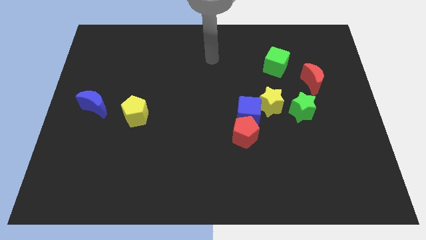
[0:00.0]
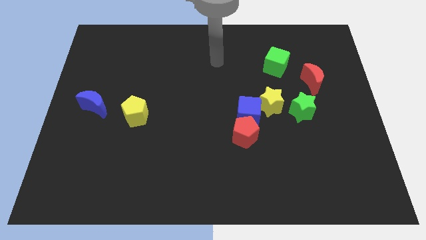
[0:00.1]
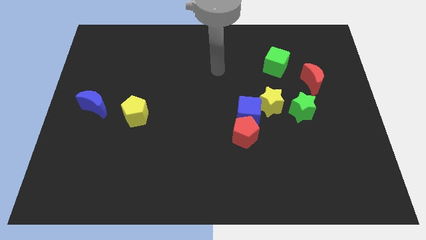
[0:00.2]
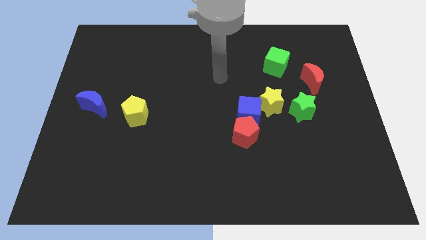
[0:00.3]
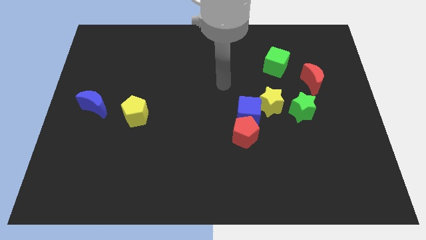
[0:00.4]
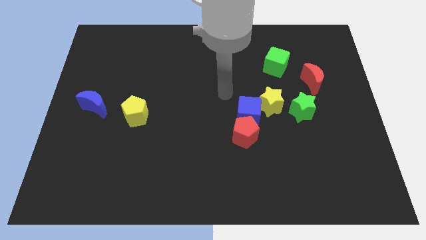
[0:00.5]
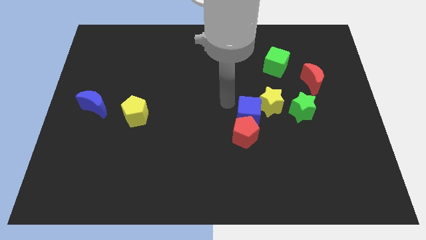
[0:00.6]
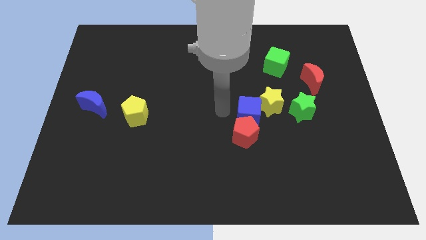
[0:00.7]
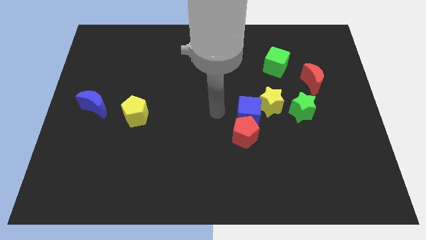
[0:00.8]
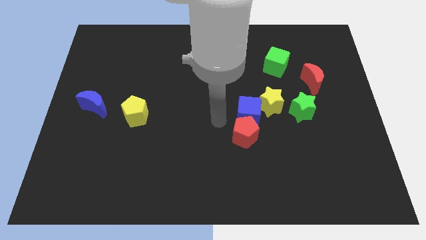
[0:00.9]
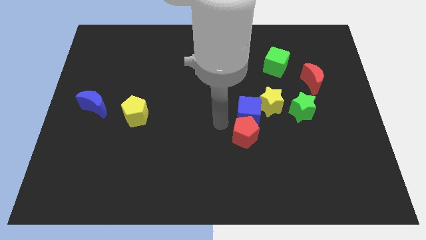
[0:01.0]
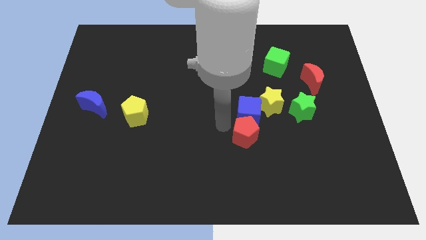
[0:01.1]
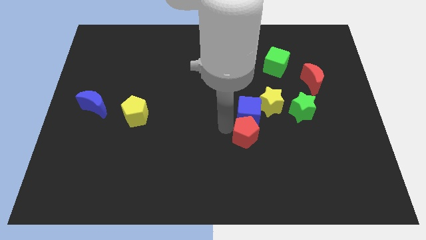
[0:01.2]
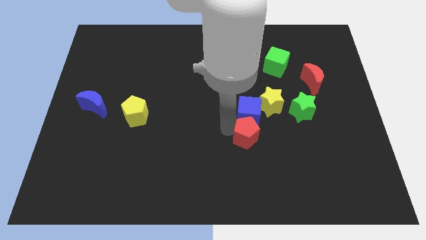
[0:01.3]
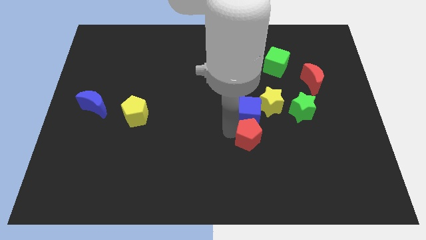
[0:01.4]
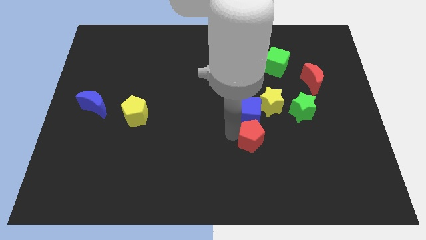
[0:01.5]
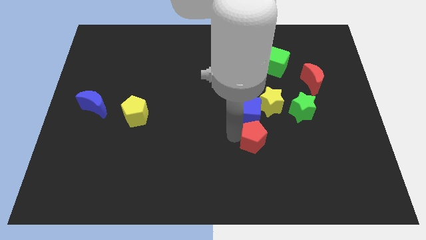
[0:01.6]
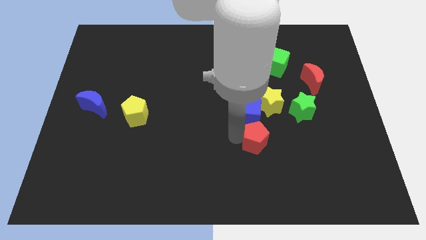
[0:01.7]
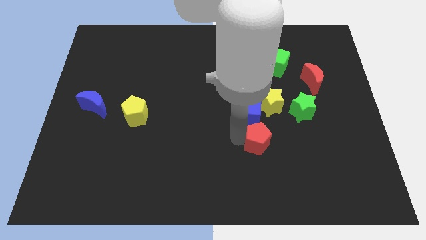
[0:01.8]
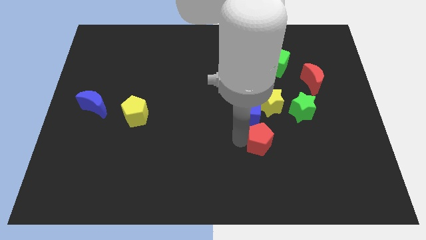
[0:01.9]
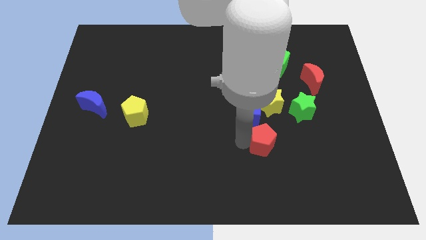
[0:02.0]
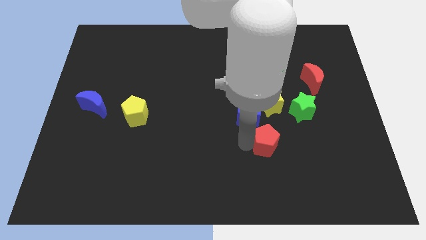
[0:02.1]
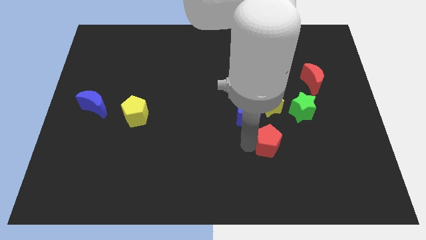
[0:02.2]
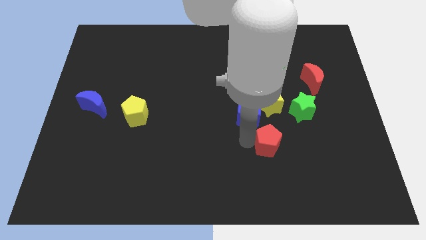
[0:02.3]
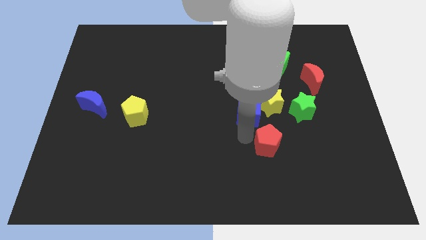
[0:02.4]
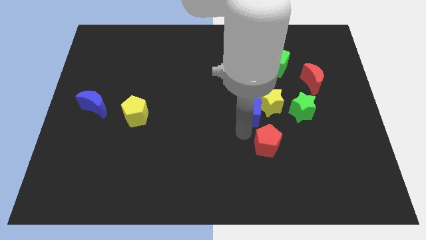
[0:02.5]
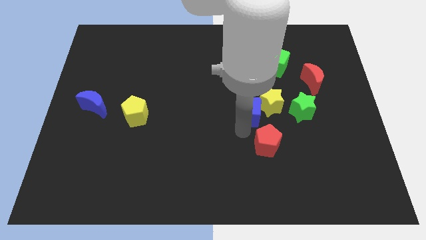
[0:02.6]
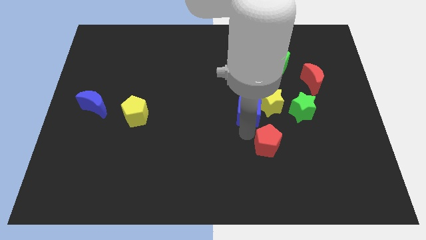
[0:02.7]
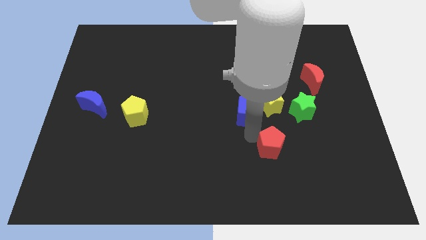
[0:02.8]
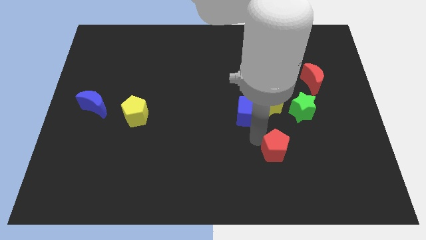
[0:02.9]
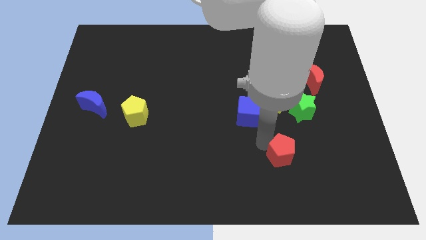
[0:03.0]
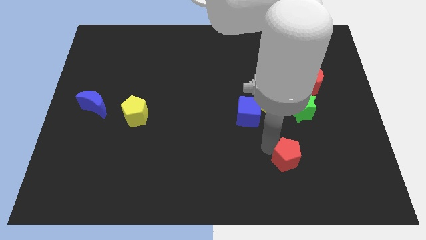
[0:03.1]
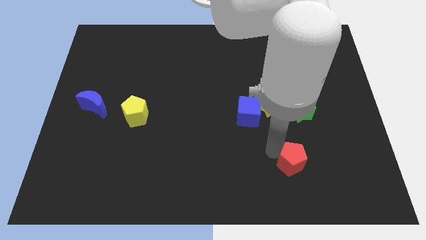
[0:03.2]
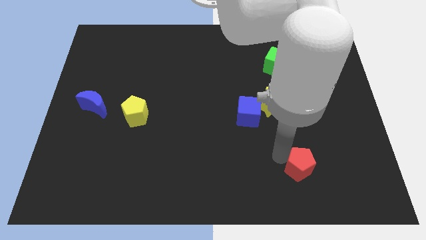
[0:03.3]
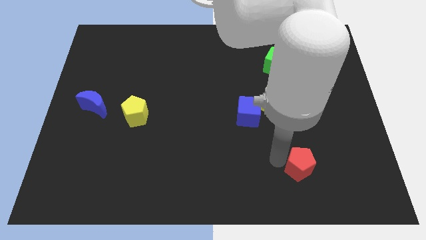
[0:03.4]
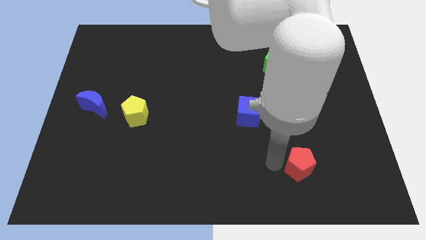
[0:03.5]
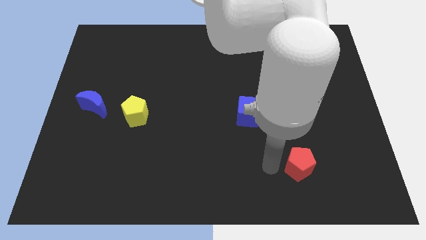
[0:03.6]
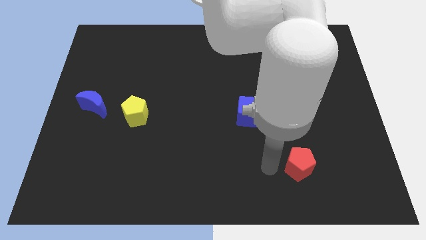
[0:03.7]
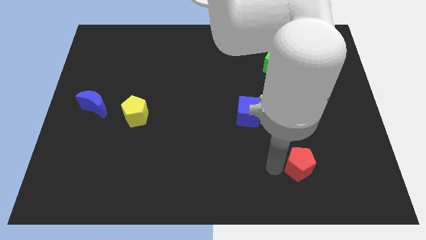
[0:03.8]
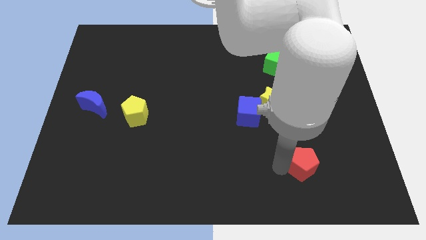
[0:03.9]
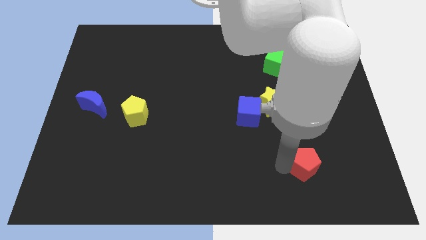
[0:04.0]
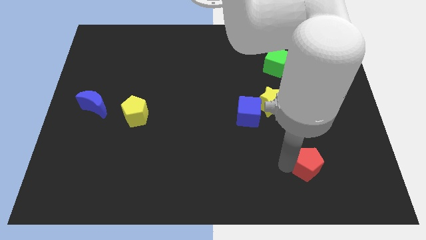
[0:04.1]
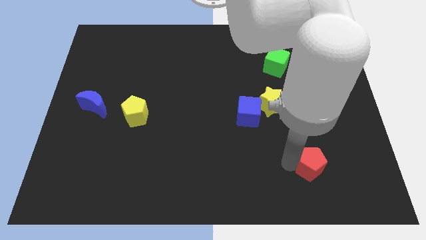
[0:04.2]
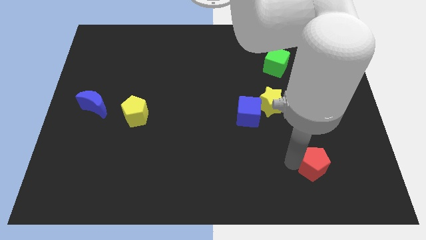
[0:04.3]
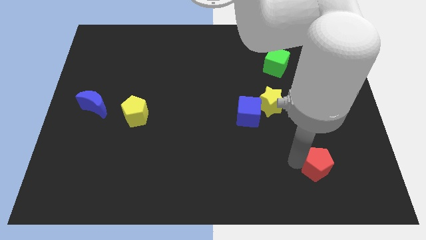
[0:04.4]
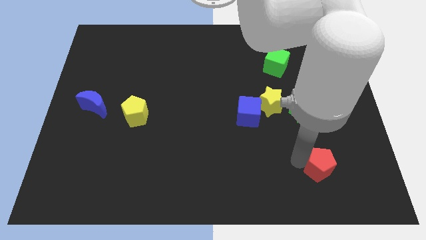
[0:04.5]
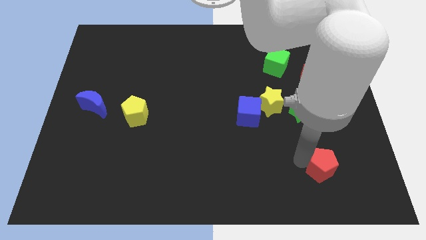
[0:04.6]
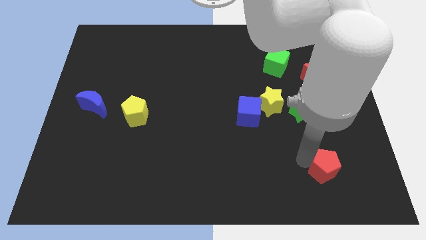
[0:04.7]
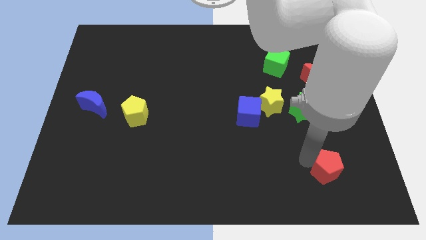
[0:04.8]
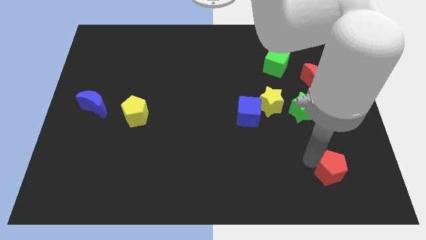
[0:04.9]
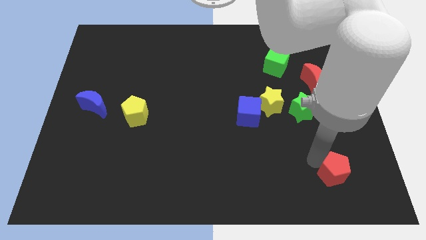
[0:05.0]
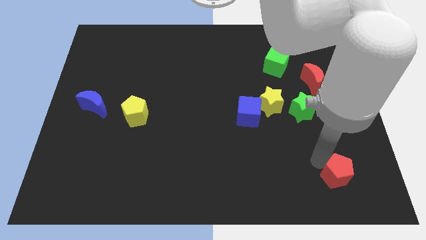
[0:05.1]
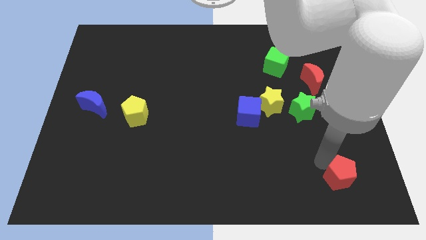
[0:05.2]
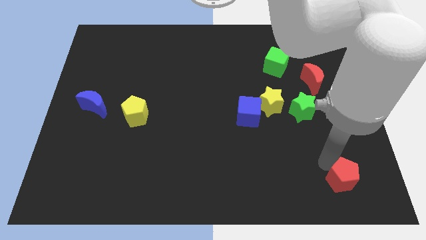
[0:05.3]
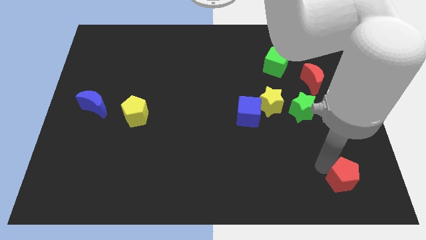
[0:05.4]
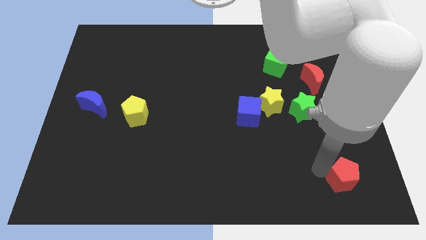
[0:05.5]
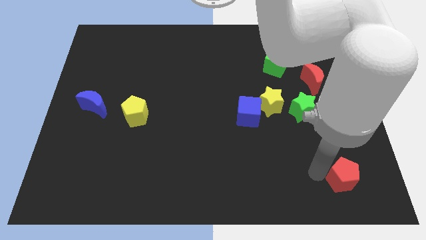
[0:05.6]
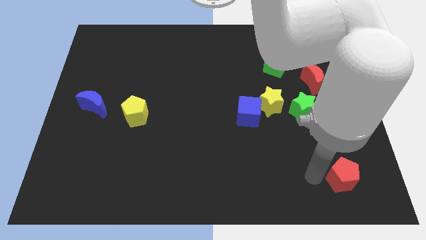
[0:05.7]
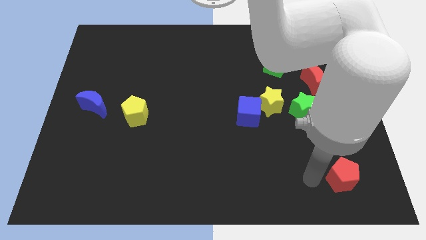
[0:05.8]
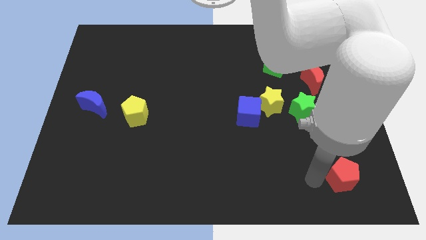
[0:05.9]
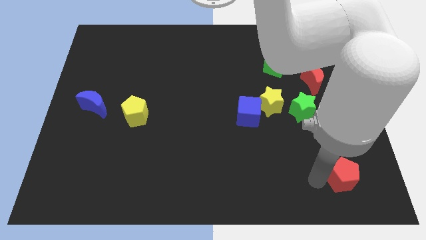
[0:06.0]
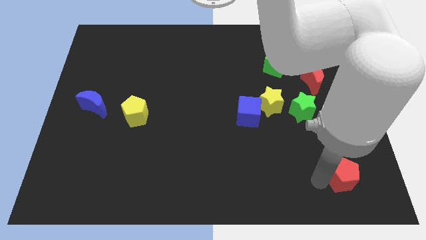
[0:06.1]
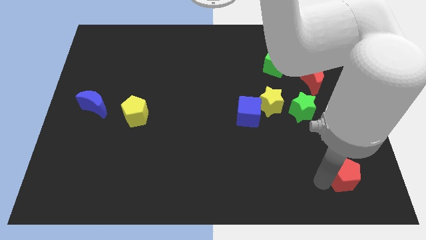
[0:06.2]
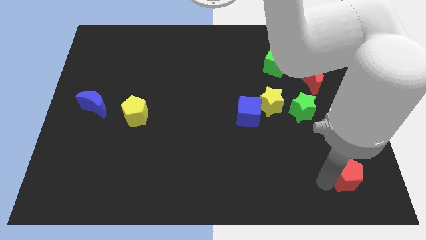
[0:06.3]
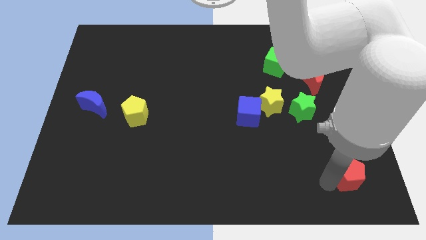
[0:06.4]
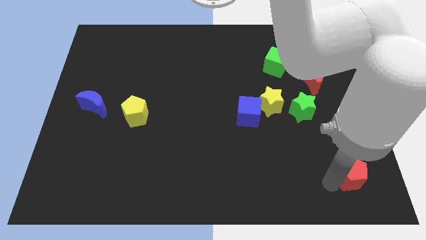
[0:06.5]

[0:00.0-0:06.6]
put the red pentagon to the bottom right of the board
